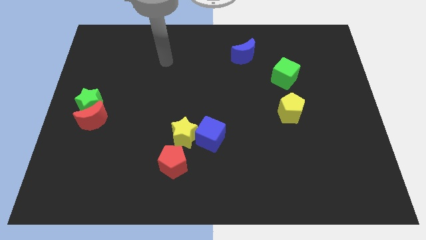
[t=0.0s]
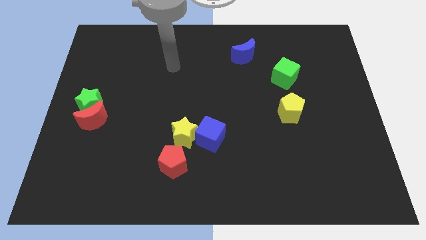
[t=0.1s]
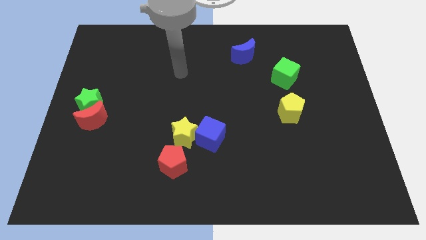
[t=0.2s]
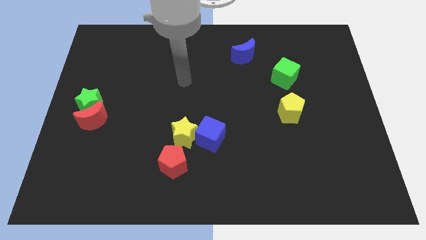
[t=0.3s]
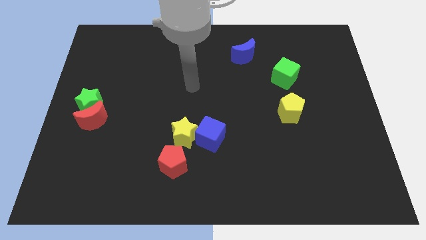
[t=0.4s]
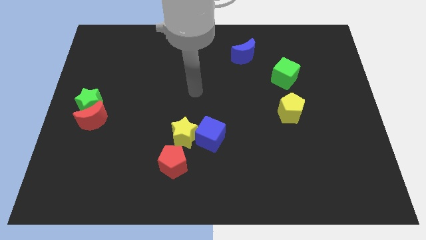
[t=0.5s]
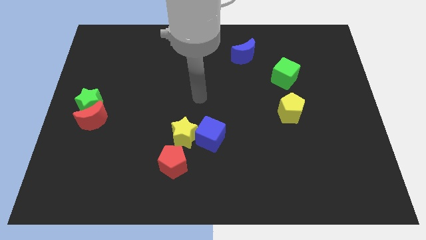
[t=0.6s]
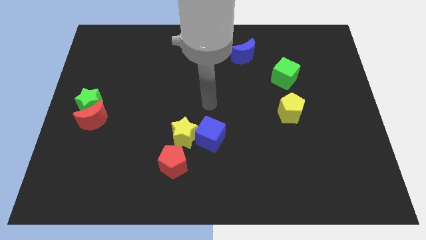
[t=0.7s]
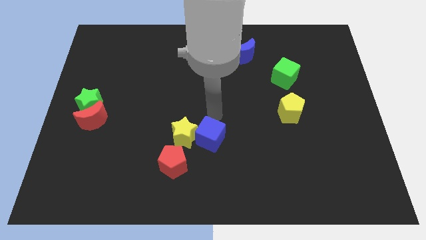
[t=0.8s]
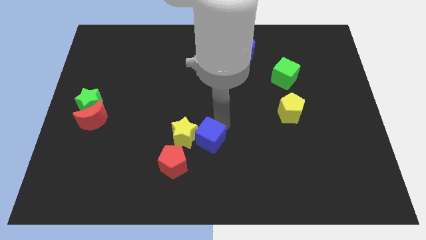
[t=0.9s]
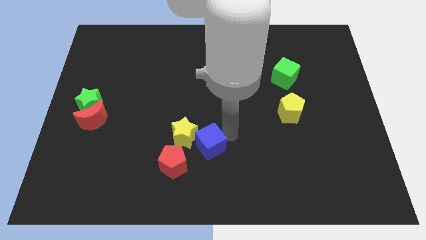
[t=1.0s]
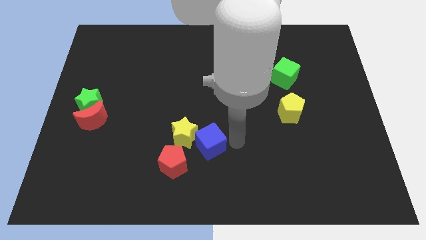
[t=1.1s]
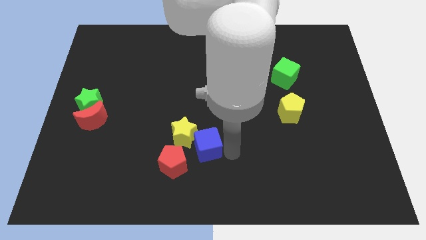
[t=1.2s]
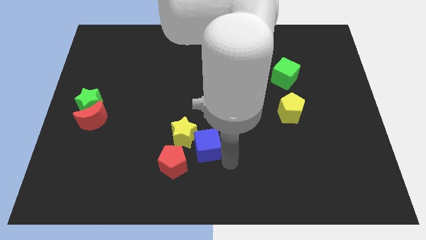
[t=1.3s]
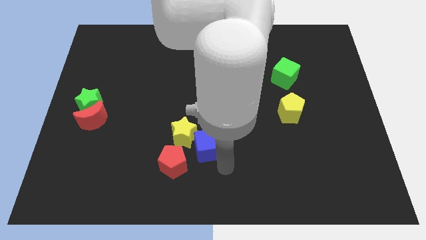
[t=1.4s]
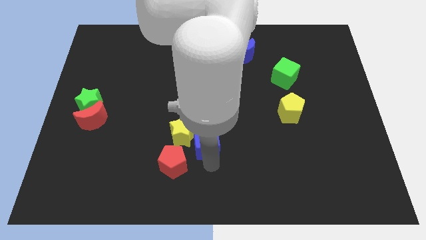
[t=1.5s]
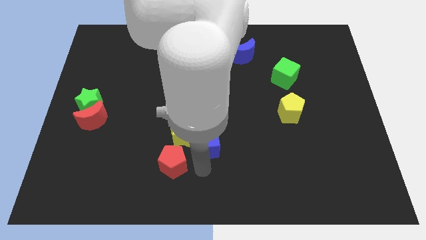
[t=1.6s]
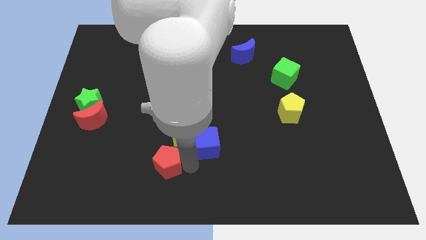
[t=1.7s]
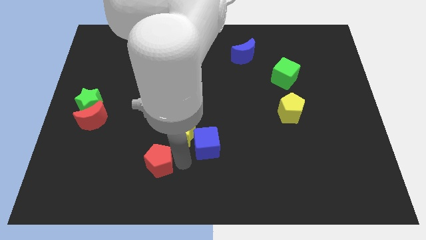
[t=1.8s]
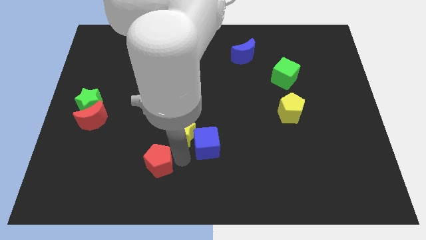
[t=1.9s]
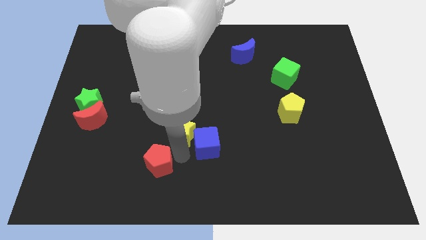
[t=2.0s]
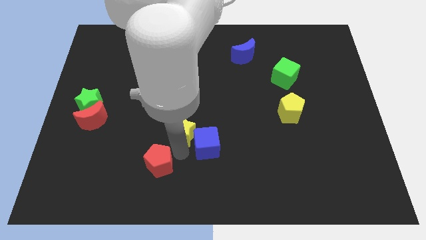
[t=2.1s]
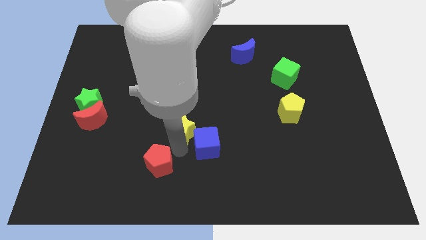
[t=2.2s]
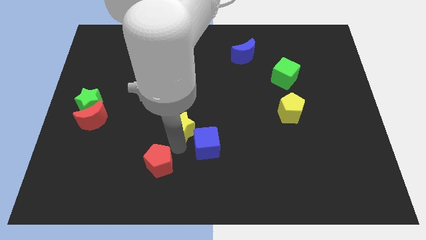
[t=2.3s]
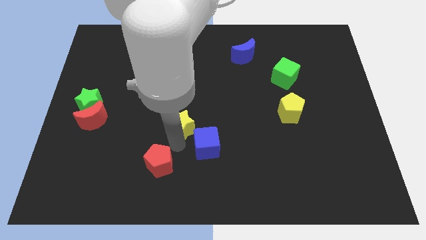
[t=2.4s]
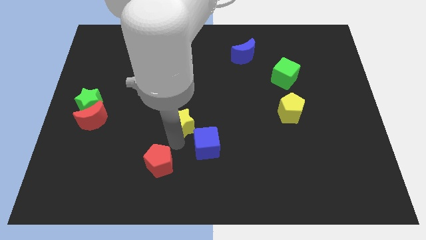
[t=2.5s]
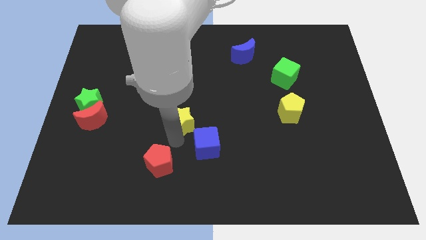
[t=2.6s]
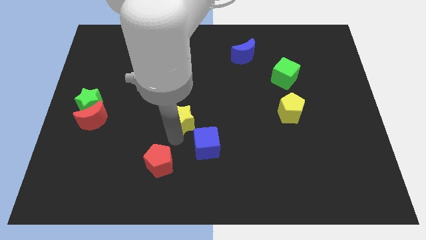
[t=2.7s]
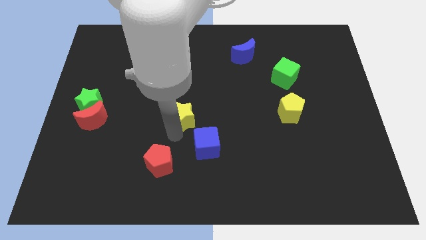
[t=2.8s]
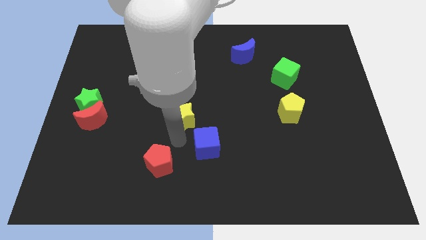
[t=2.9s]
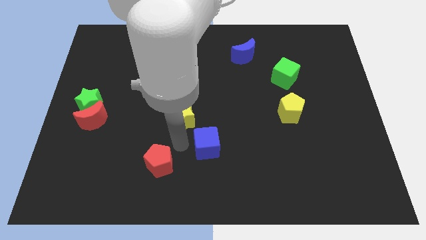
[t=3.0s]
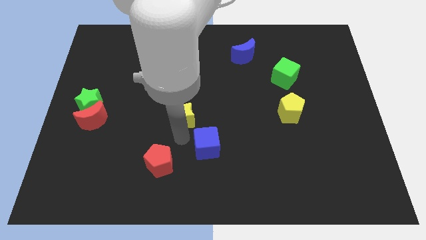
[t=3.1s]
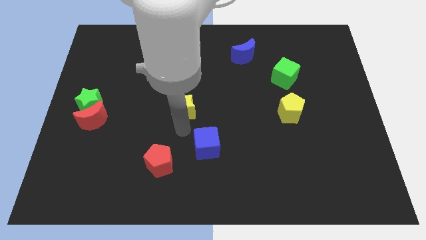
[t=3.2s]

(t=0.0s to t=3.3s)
slightly slide the yellow star upwards

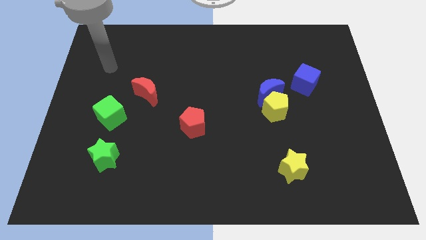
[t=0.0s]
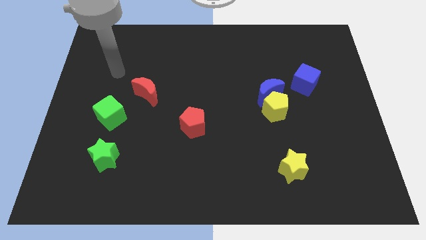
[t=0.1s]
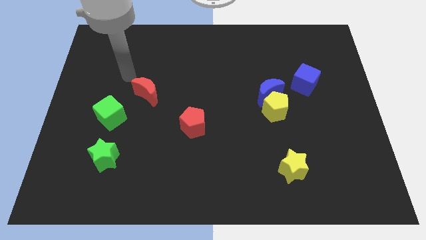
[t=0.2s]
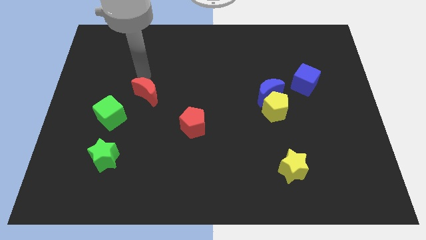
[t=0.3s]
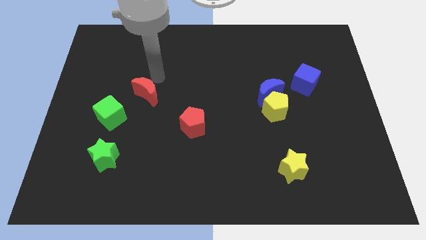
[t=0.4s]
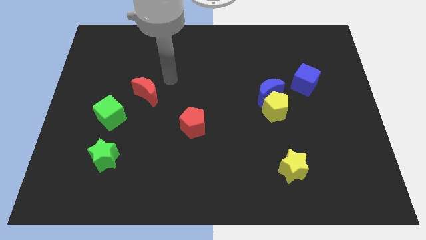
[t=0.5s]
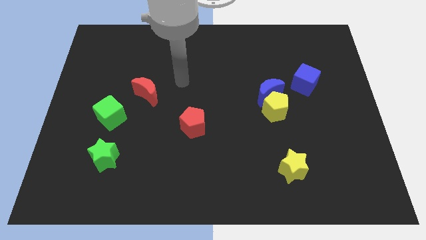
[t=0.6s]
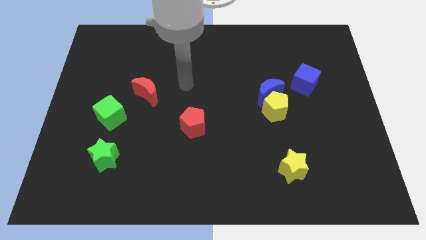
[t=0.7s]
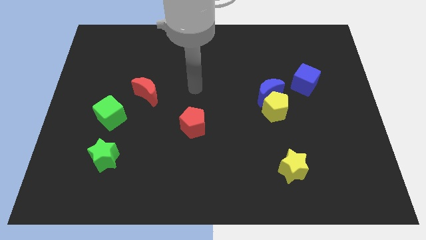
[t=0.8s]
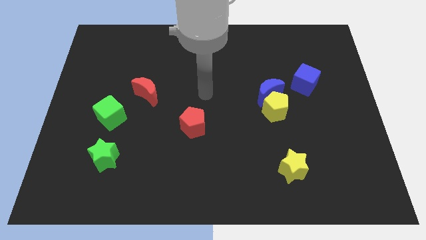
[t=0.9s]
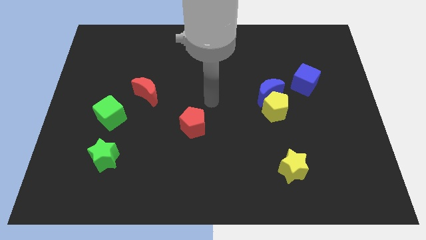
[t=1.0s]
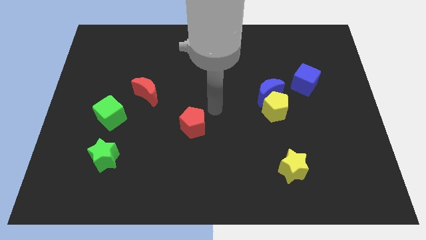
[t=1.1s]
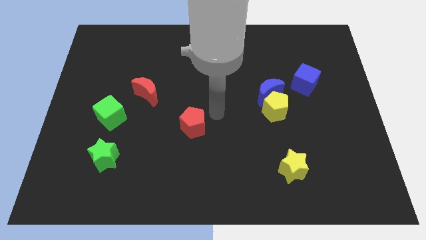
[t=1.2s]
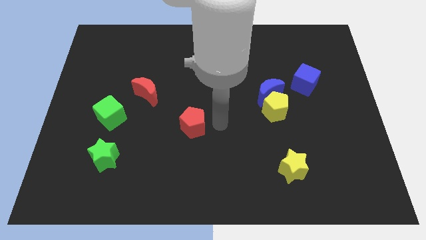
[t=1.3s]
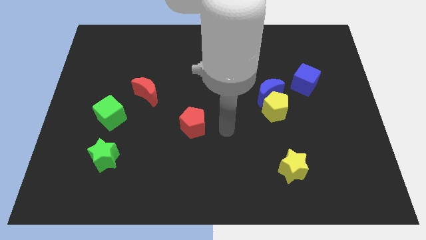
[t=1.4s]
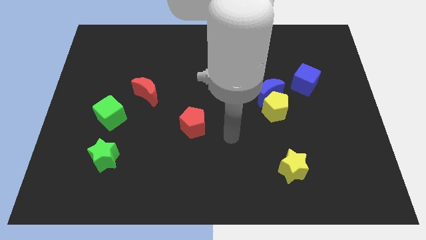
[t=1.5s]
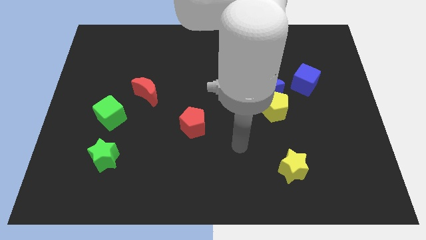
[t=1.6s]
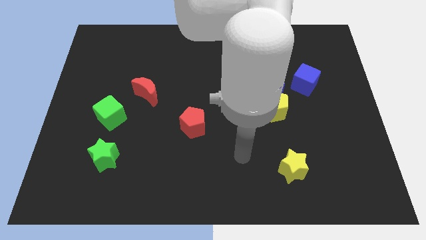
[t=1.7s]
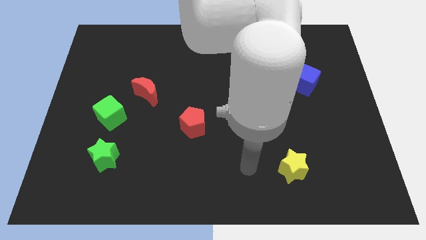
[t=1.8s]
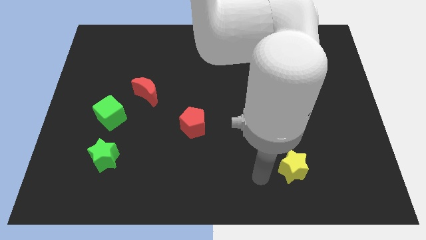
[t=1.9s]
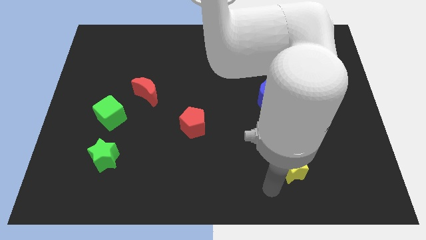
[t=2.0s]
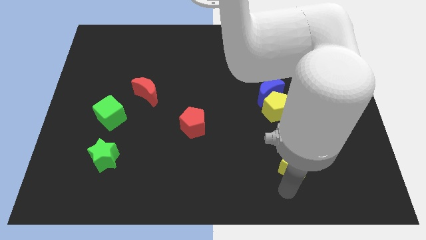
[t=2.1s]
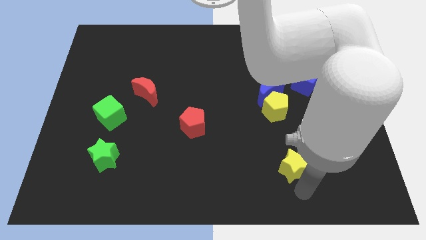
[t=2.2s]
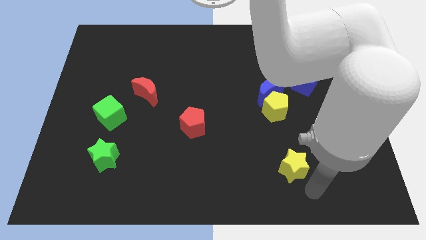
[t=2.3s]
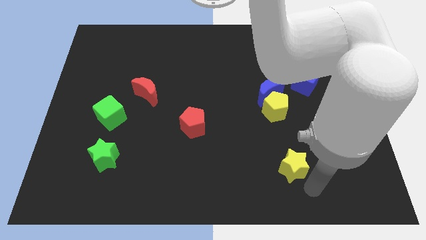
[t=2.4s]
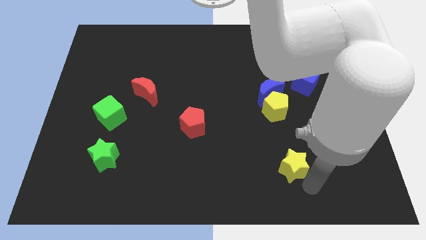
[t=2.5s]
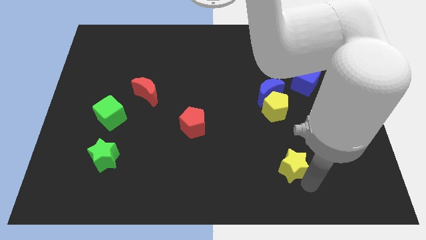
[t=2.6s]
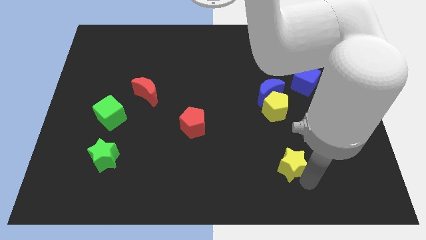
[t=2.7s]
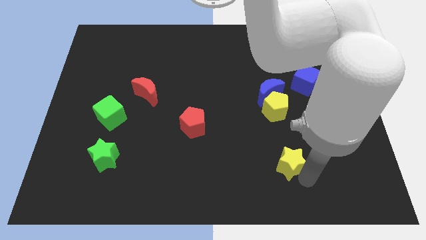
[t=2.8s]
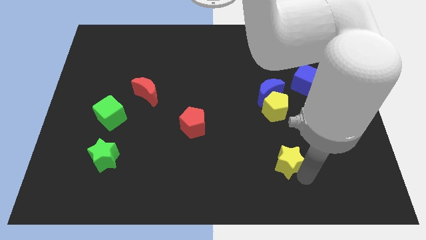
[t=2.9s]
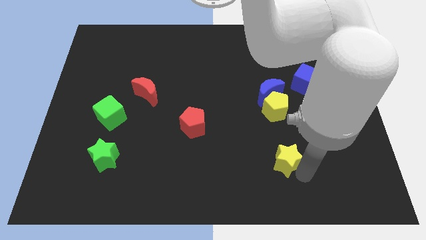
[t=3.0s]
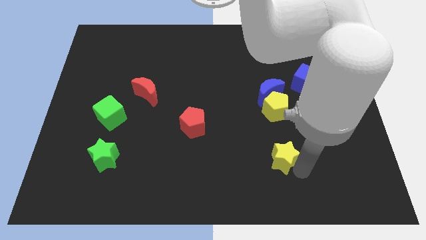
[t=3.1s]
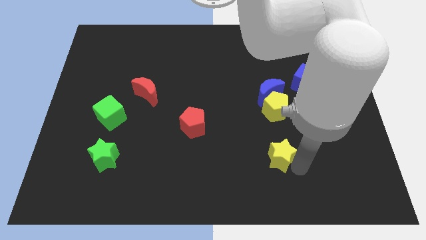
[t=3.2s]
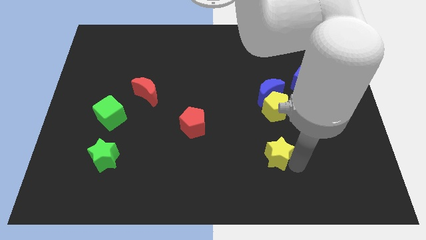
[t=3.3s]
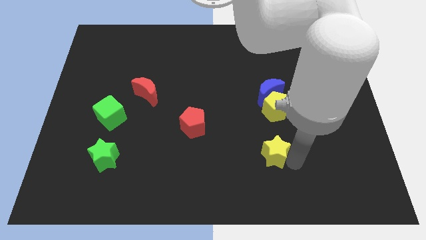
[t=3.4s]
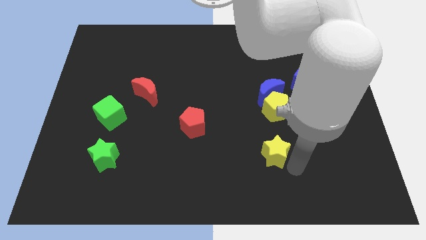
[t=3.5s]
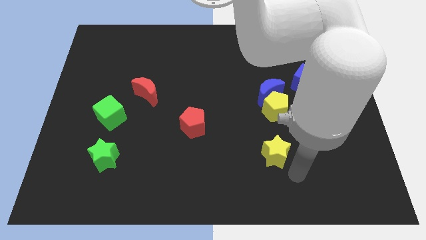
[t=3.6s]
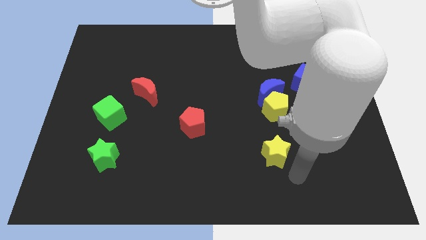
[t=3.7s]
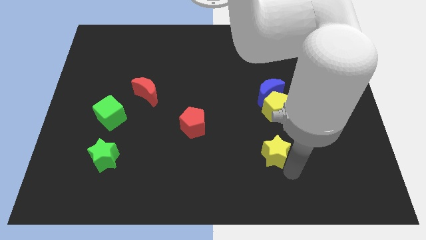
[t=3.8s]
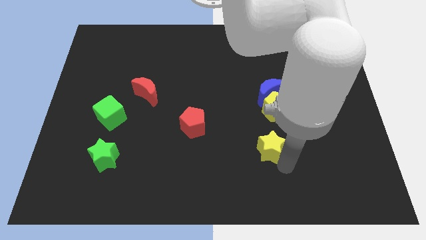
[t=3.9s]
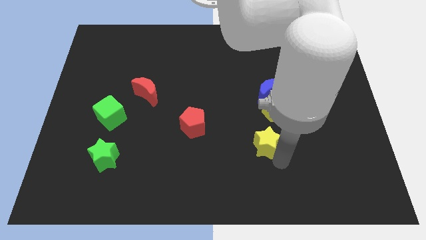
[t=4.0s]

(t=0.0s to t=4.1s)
slide the yellow star diagonally upwards and left a little

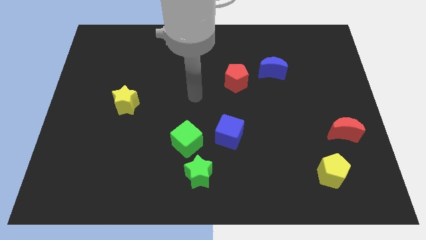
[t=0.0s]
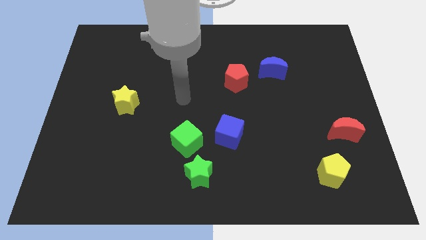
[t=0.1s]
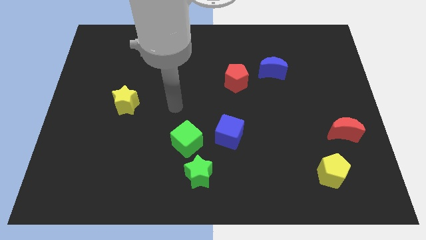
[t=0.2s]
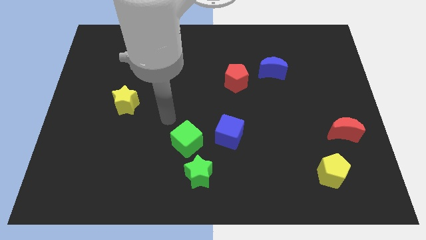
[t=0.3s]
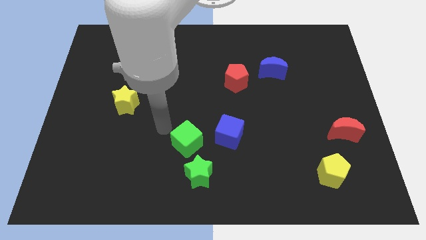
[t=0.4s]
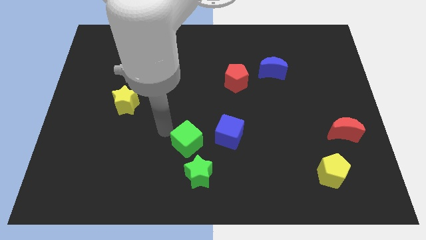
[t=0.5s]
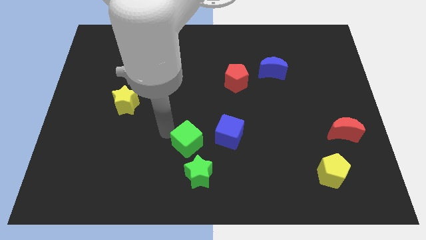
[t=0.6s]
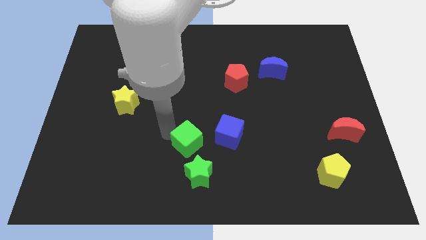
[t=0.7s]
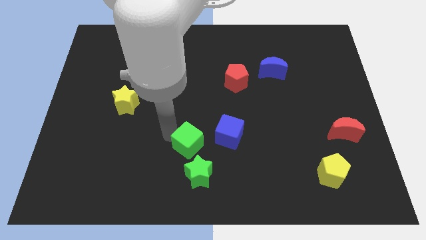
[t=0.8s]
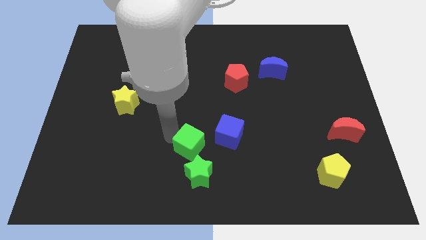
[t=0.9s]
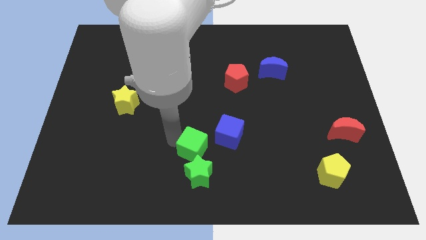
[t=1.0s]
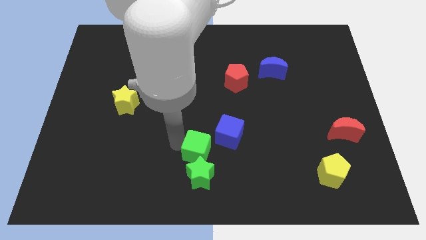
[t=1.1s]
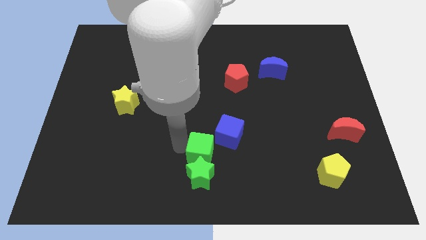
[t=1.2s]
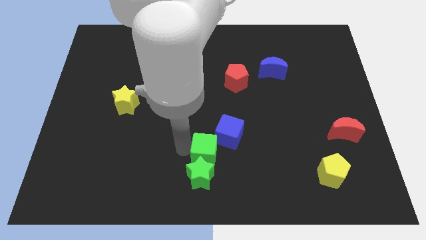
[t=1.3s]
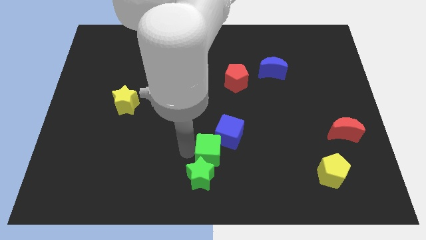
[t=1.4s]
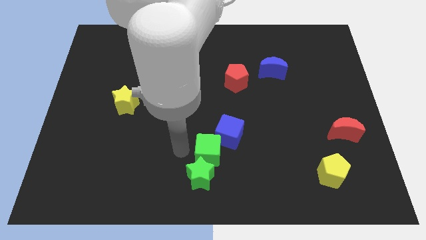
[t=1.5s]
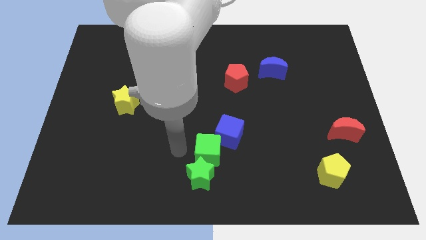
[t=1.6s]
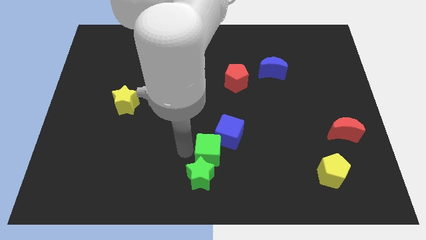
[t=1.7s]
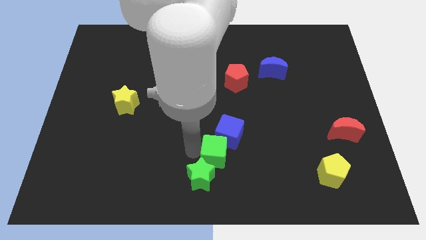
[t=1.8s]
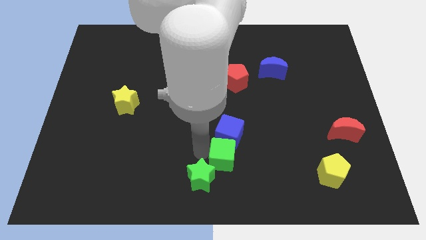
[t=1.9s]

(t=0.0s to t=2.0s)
slightly push the green cube to the right
